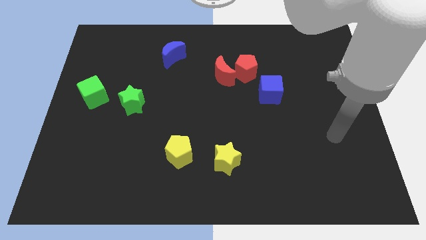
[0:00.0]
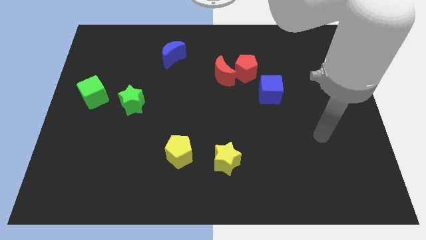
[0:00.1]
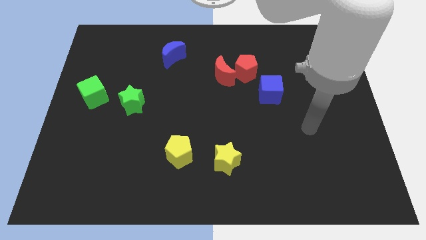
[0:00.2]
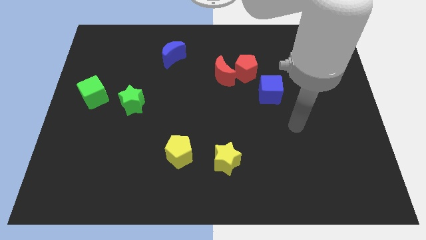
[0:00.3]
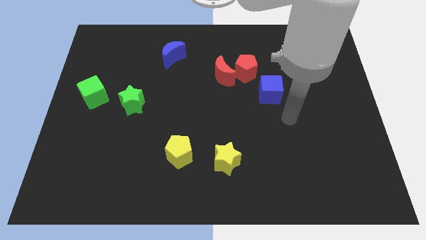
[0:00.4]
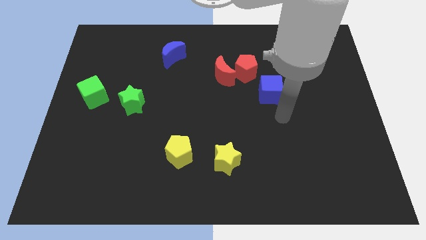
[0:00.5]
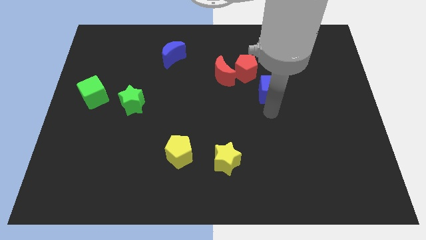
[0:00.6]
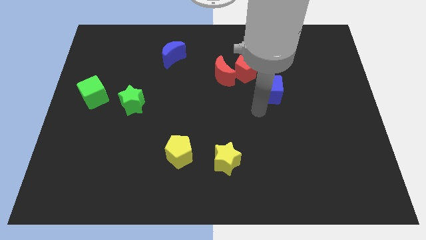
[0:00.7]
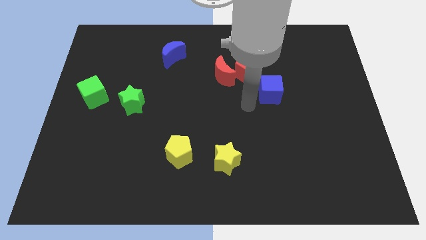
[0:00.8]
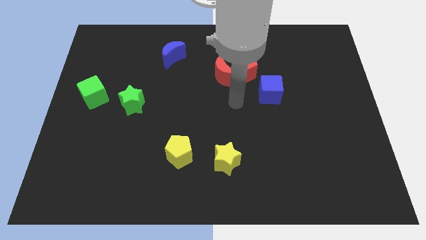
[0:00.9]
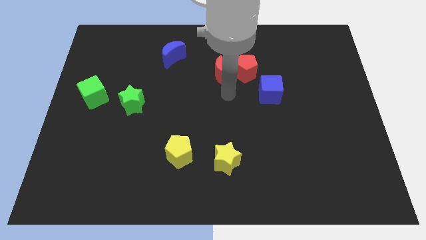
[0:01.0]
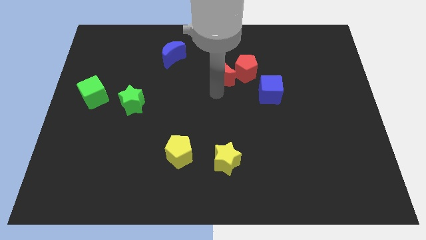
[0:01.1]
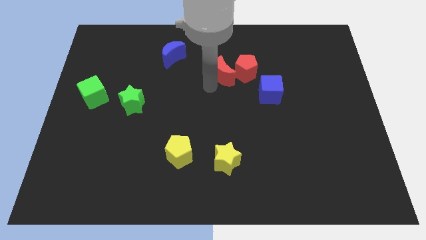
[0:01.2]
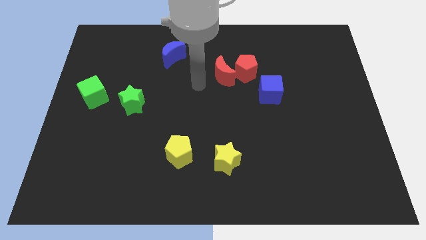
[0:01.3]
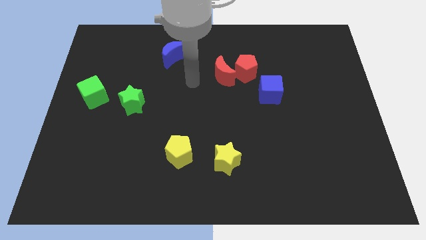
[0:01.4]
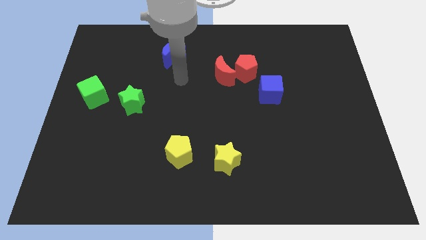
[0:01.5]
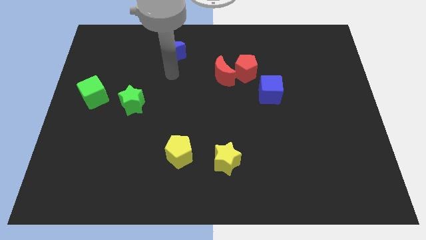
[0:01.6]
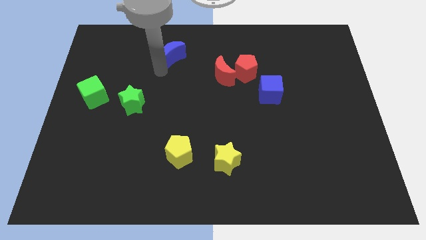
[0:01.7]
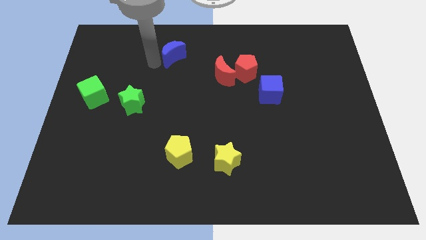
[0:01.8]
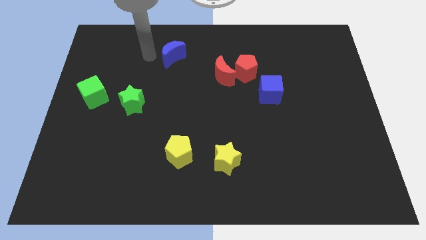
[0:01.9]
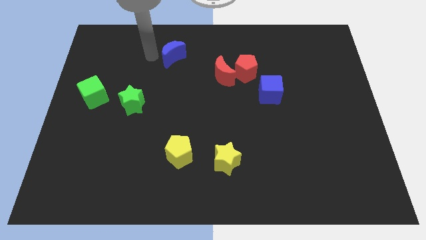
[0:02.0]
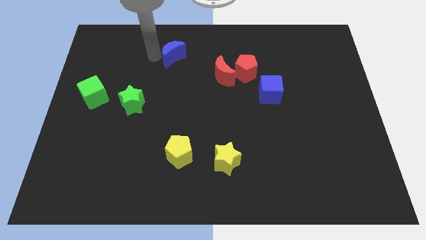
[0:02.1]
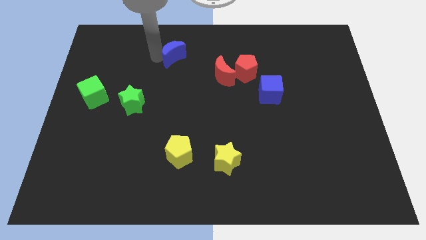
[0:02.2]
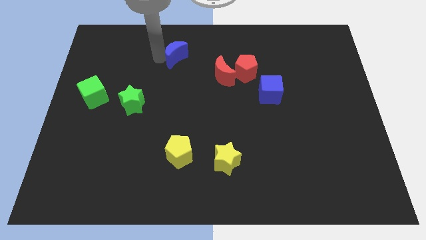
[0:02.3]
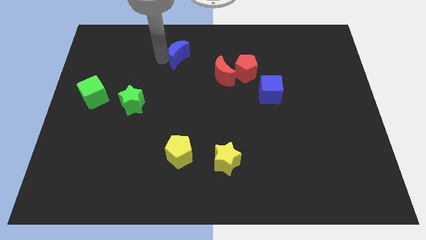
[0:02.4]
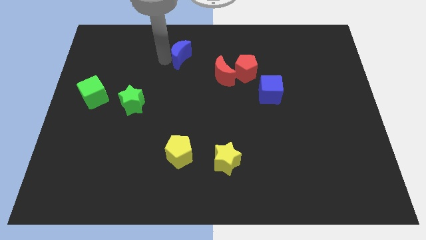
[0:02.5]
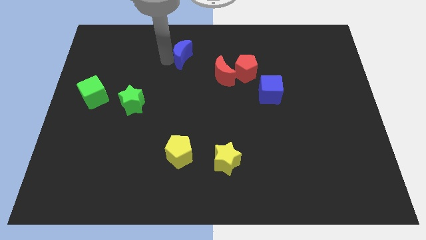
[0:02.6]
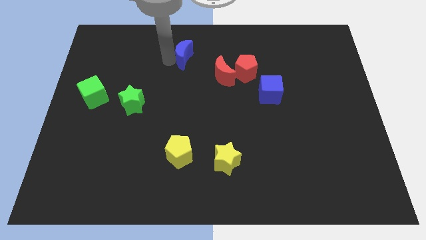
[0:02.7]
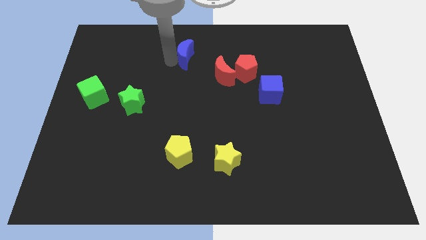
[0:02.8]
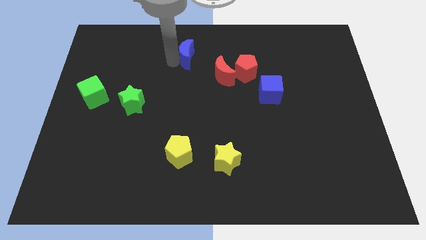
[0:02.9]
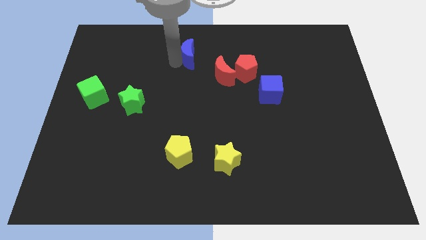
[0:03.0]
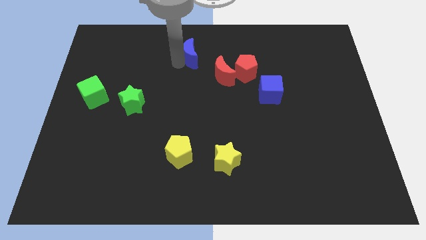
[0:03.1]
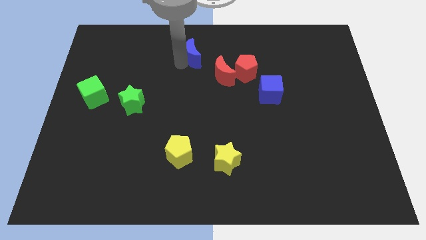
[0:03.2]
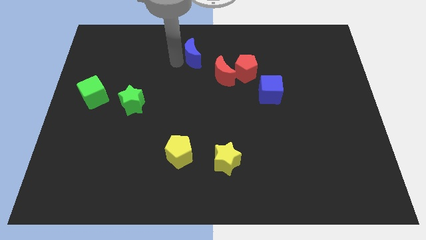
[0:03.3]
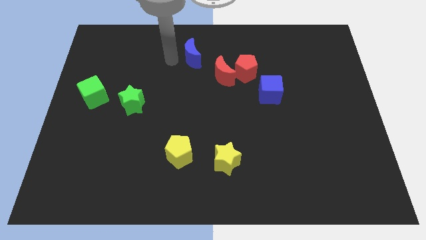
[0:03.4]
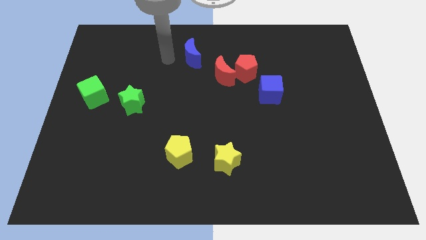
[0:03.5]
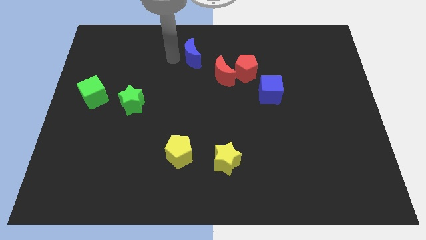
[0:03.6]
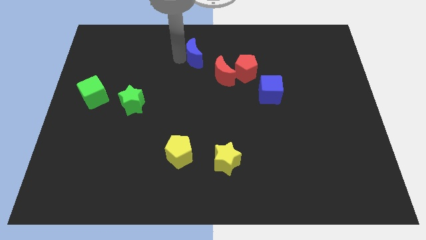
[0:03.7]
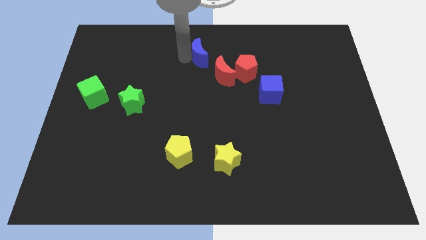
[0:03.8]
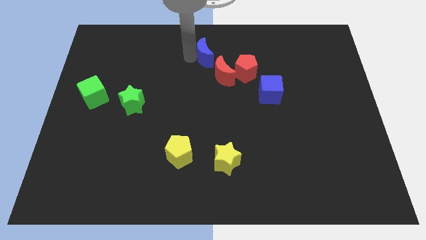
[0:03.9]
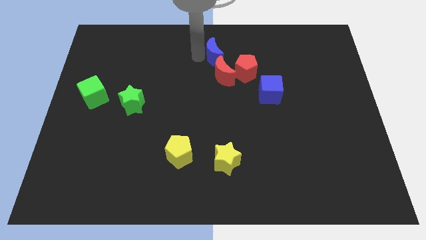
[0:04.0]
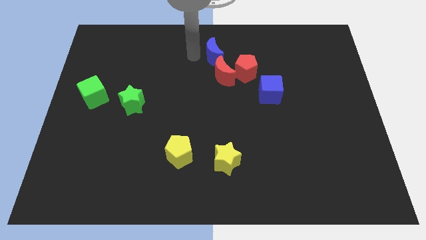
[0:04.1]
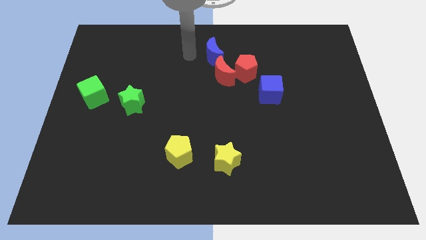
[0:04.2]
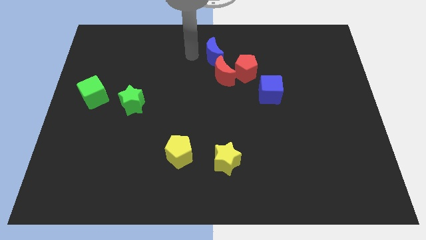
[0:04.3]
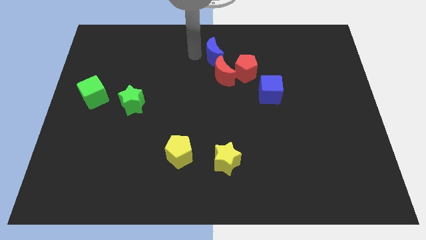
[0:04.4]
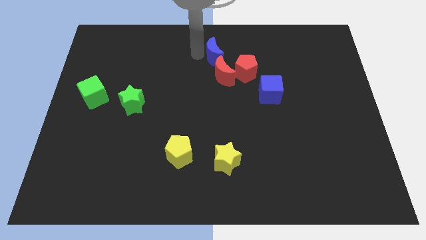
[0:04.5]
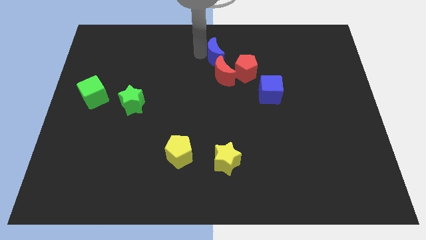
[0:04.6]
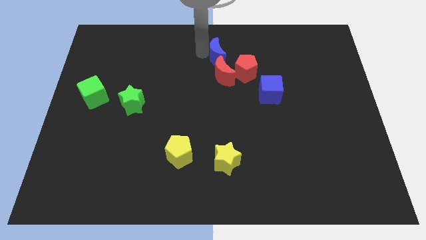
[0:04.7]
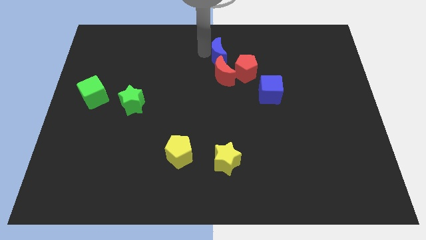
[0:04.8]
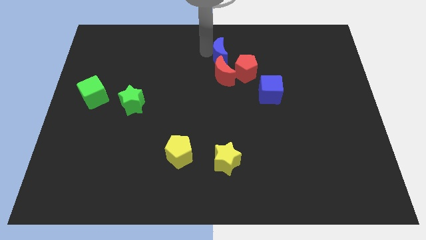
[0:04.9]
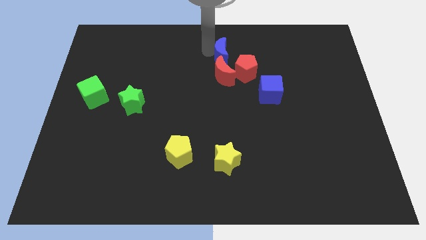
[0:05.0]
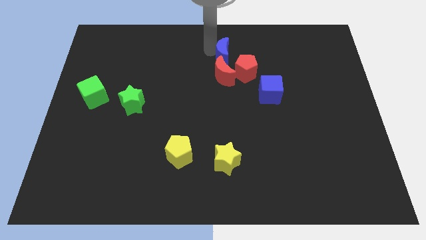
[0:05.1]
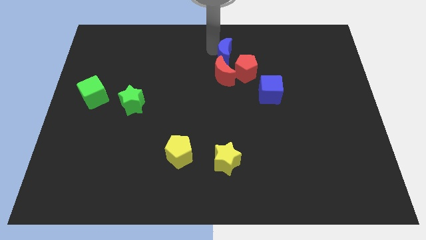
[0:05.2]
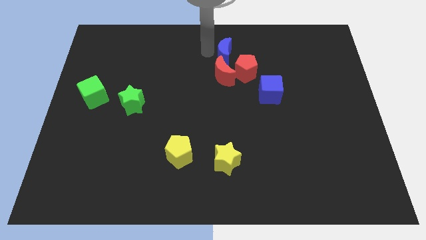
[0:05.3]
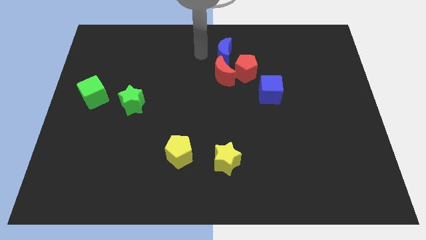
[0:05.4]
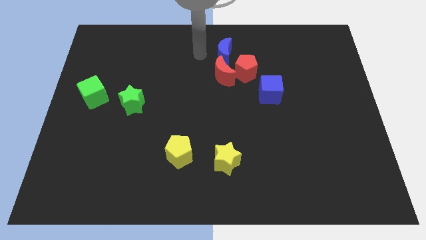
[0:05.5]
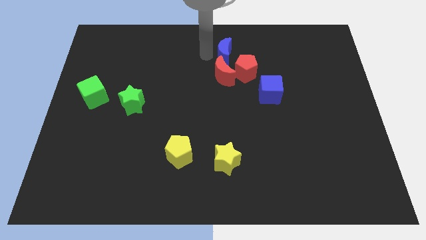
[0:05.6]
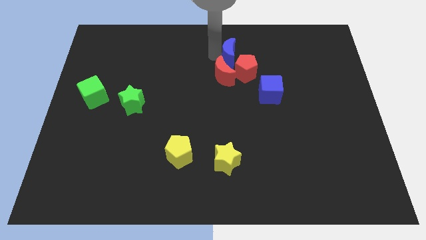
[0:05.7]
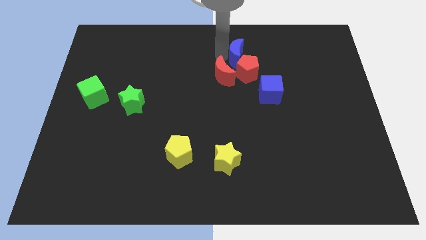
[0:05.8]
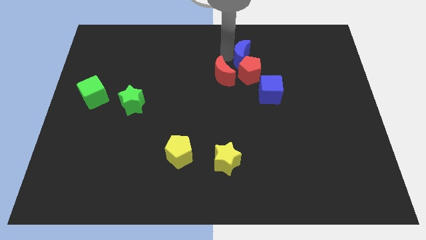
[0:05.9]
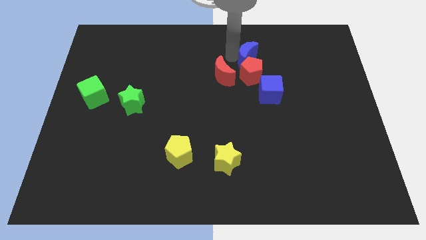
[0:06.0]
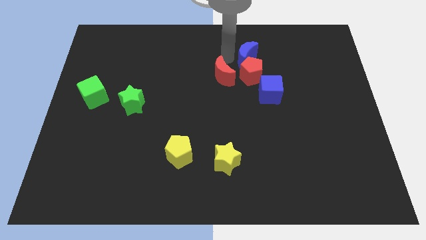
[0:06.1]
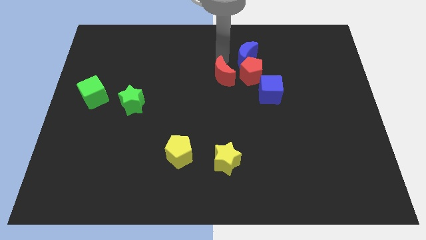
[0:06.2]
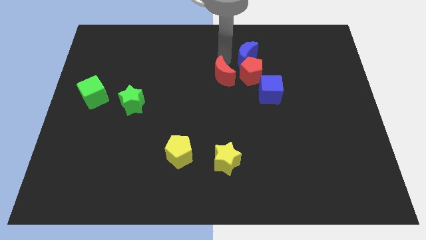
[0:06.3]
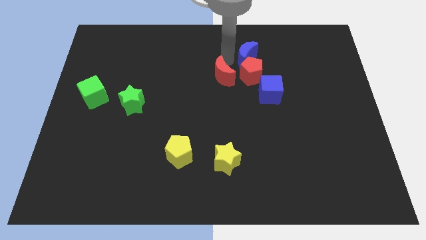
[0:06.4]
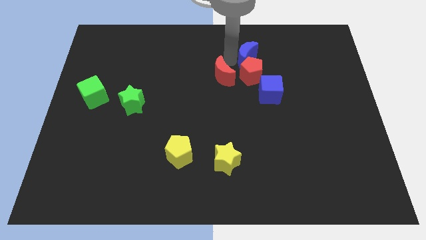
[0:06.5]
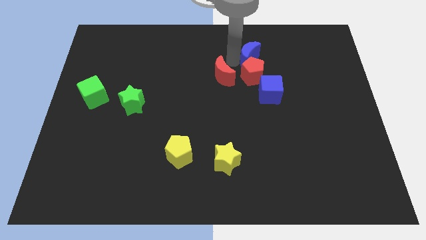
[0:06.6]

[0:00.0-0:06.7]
push the blue moon right

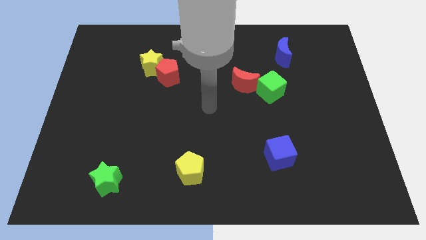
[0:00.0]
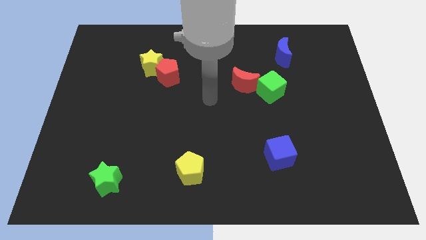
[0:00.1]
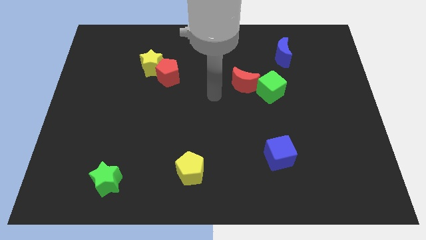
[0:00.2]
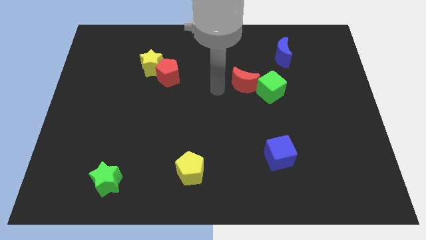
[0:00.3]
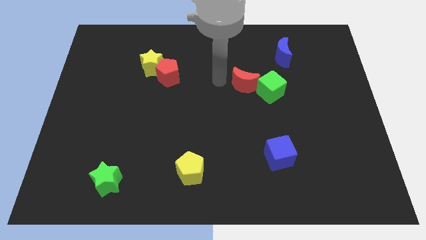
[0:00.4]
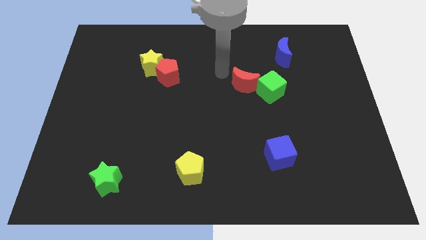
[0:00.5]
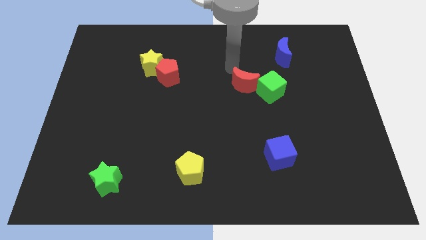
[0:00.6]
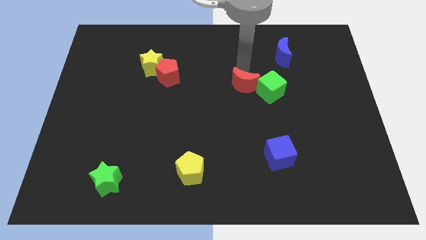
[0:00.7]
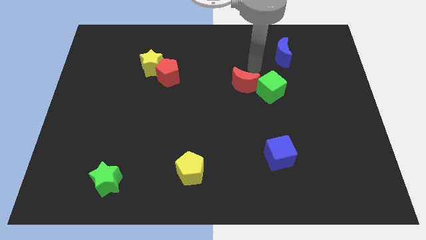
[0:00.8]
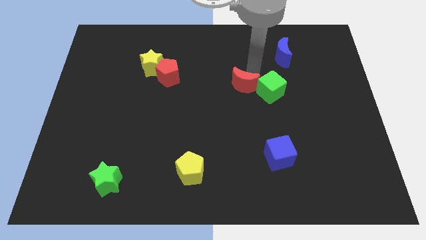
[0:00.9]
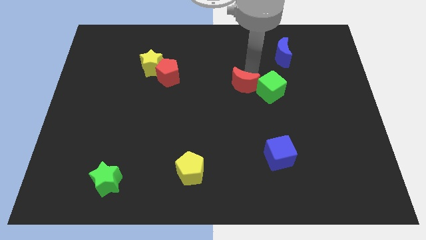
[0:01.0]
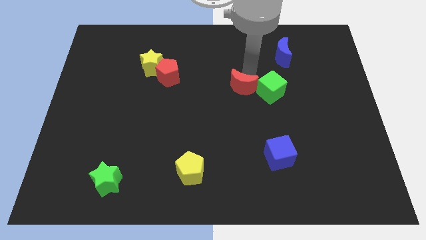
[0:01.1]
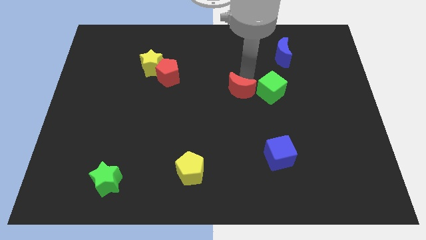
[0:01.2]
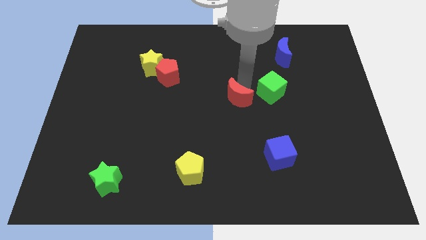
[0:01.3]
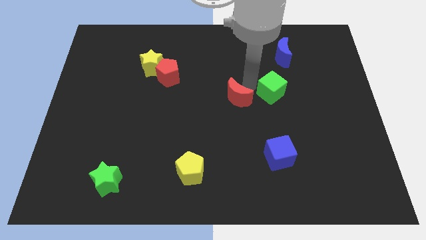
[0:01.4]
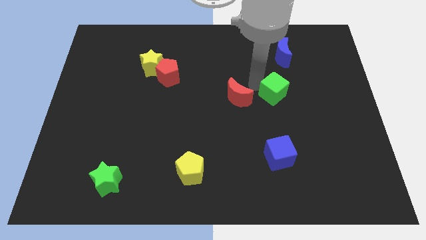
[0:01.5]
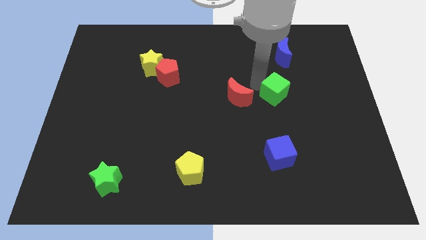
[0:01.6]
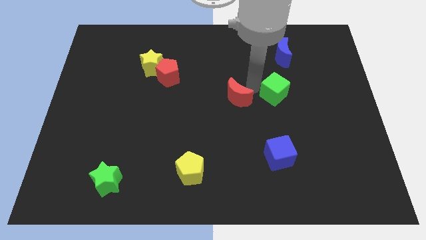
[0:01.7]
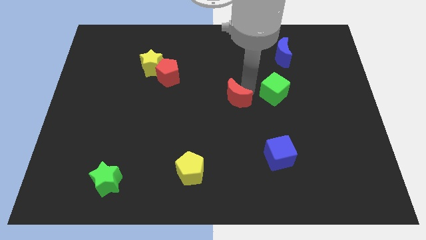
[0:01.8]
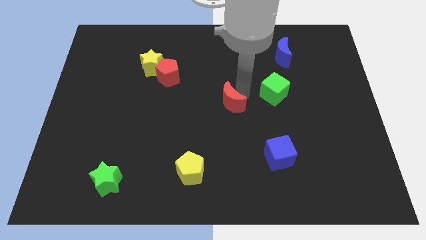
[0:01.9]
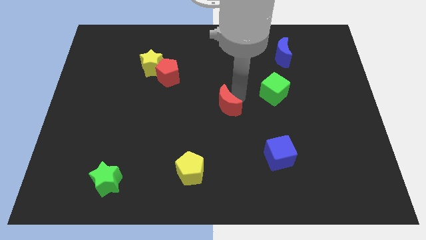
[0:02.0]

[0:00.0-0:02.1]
move the red moon downwards and to the left diagonally a bit

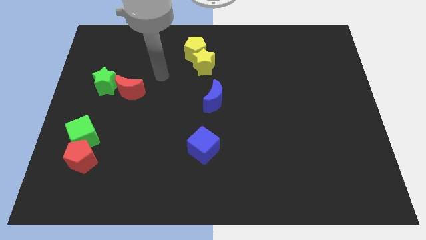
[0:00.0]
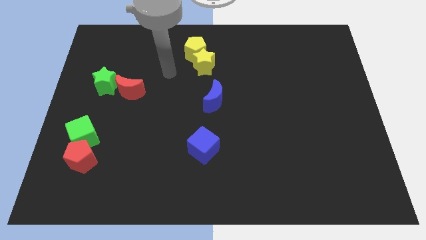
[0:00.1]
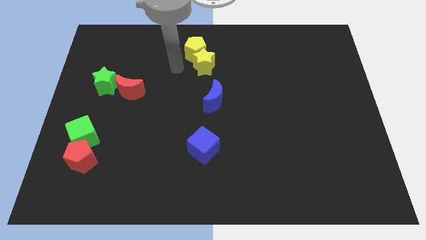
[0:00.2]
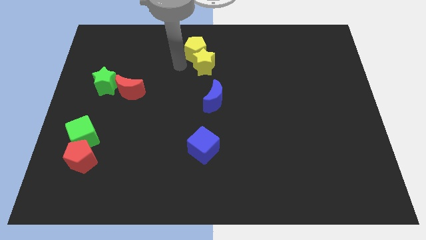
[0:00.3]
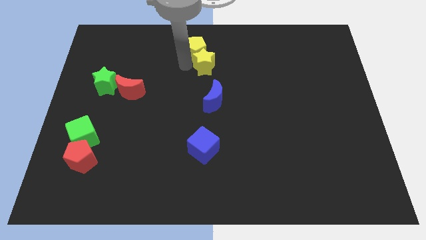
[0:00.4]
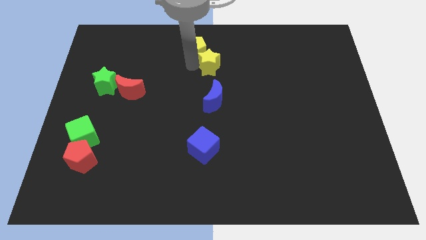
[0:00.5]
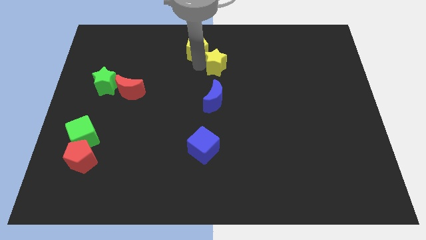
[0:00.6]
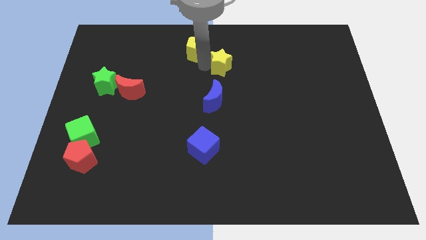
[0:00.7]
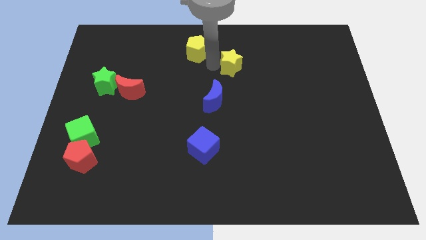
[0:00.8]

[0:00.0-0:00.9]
move the yellow star right slightly
